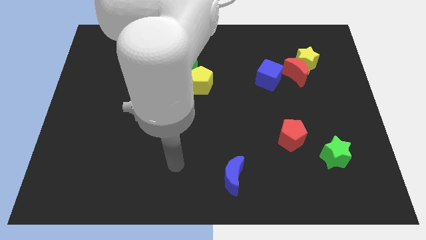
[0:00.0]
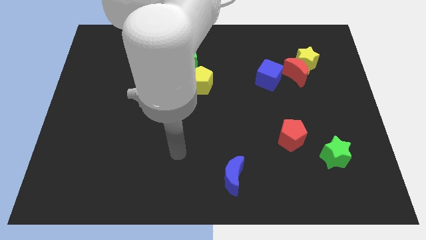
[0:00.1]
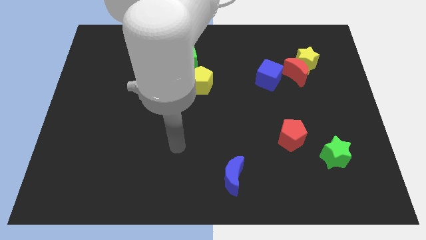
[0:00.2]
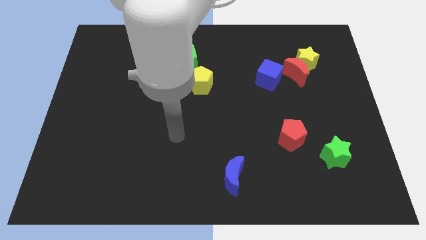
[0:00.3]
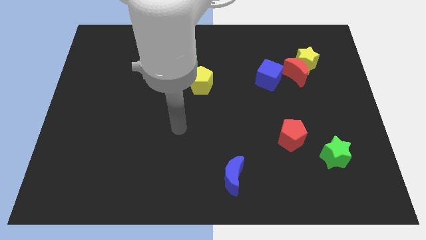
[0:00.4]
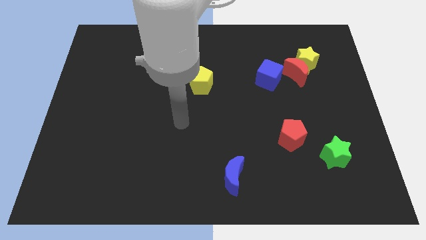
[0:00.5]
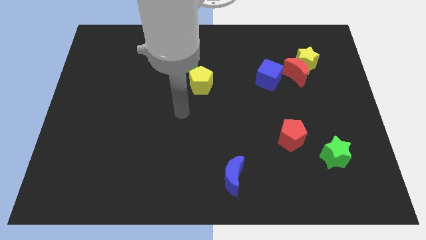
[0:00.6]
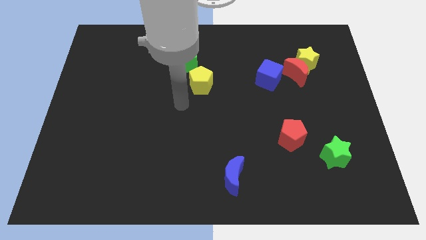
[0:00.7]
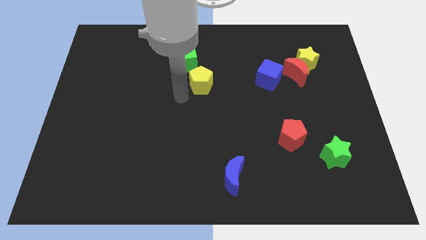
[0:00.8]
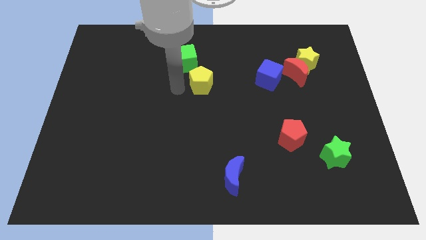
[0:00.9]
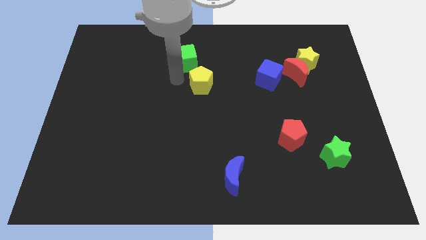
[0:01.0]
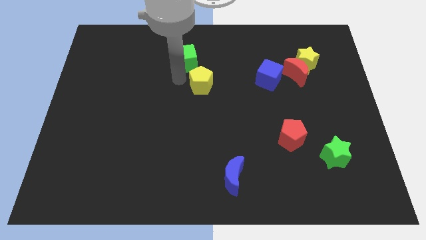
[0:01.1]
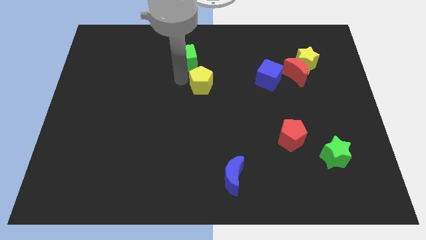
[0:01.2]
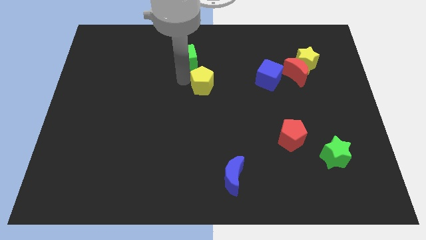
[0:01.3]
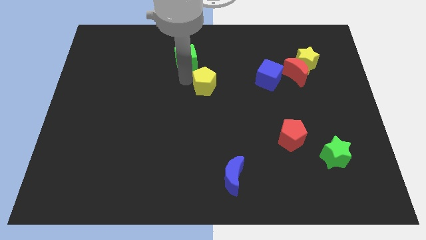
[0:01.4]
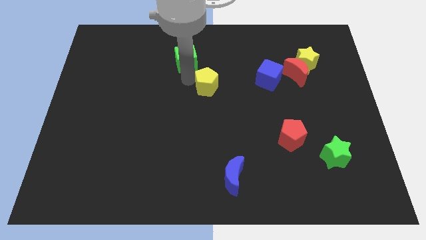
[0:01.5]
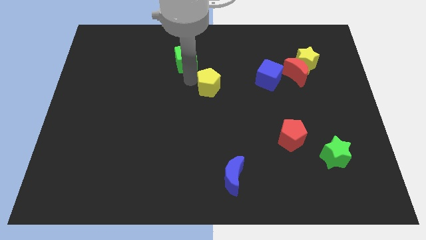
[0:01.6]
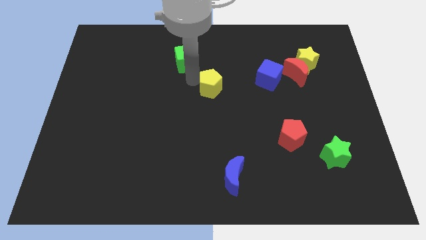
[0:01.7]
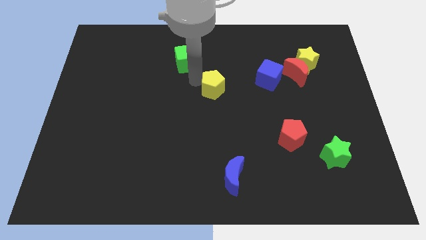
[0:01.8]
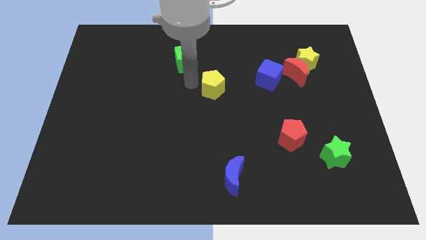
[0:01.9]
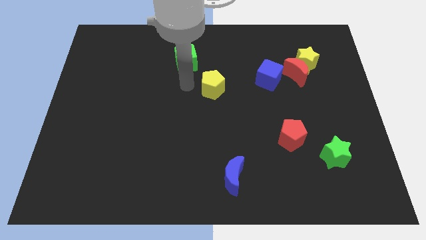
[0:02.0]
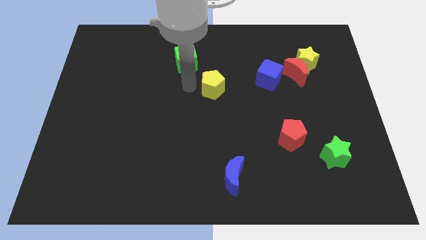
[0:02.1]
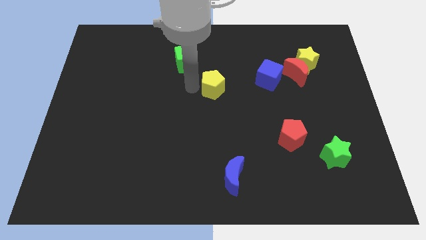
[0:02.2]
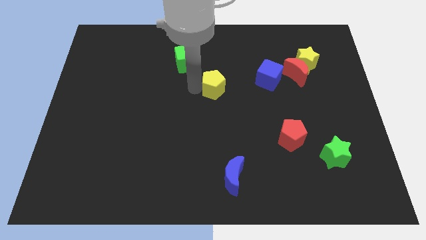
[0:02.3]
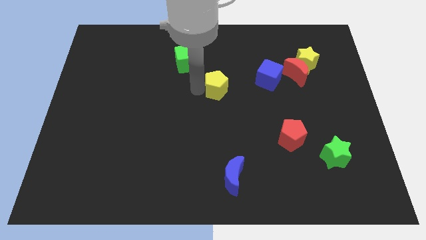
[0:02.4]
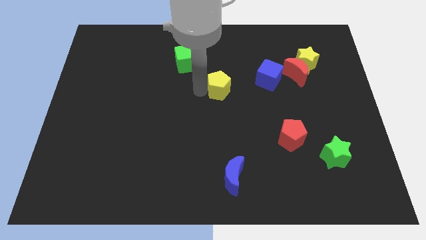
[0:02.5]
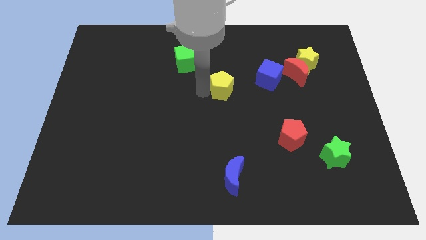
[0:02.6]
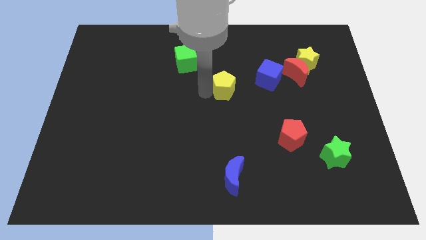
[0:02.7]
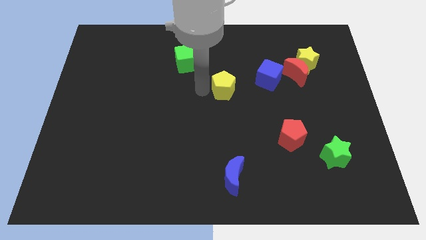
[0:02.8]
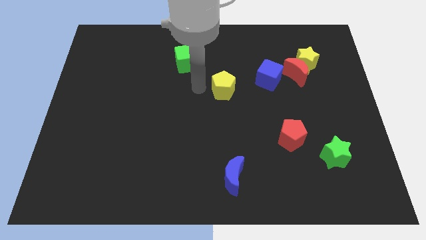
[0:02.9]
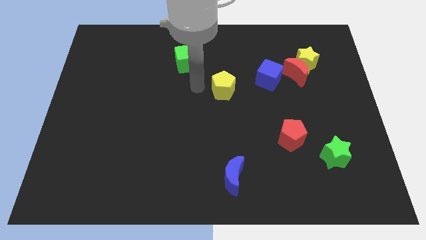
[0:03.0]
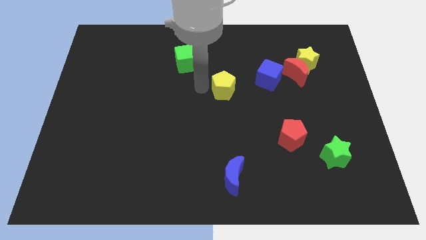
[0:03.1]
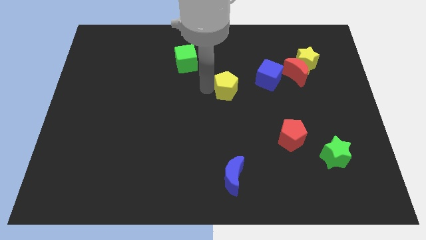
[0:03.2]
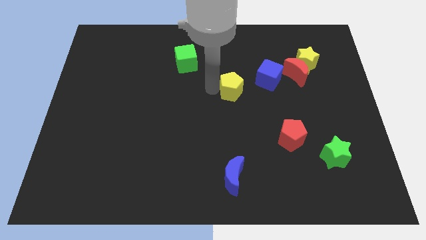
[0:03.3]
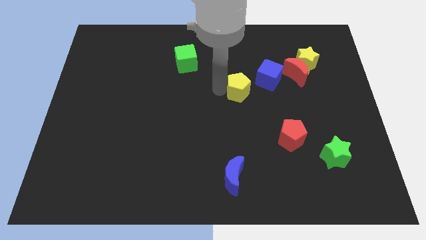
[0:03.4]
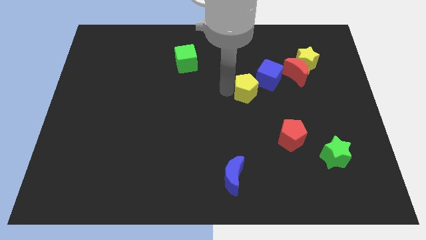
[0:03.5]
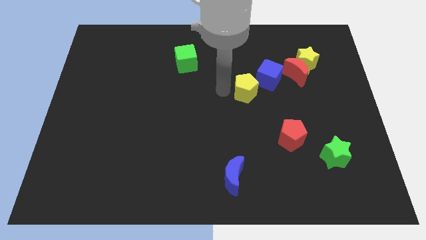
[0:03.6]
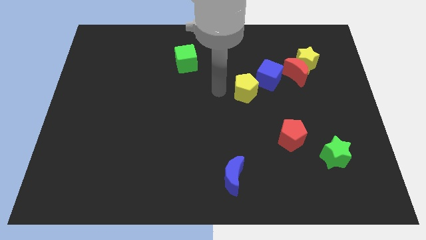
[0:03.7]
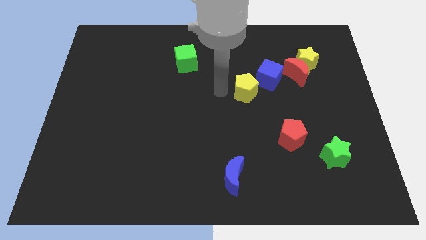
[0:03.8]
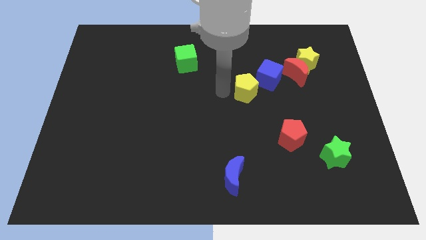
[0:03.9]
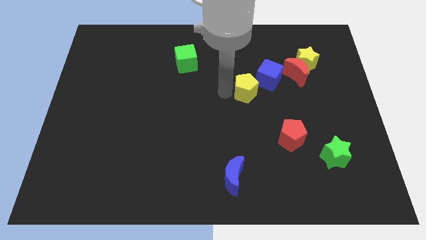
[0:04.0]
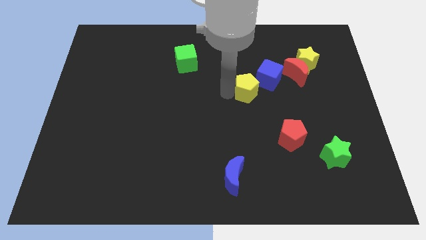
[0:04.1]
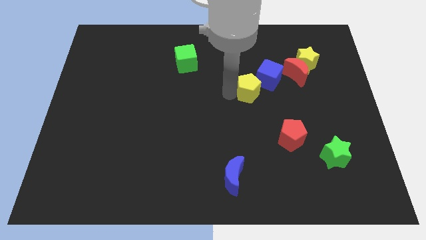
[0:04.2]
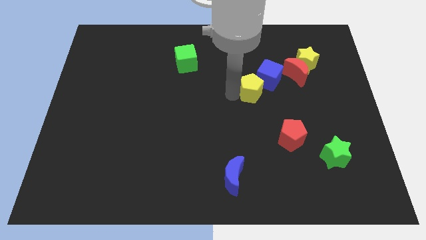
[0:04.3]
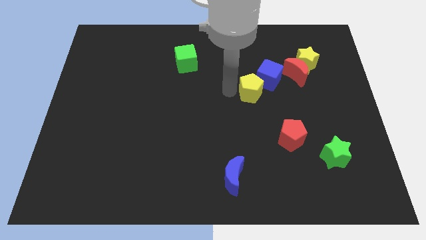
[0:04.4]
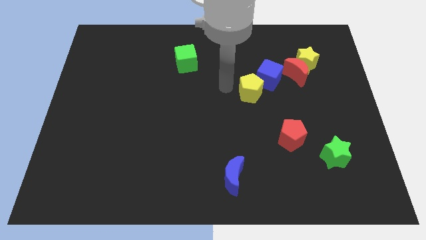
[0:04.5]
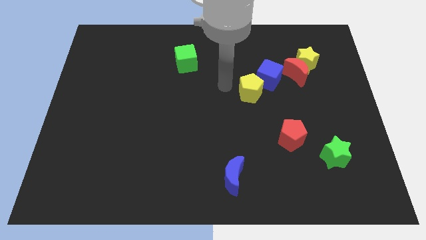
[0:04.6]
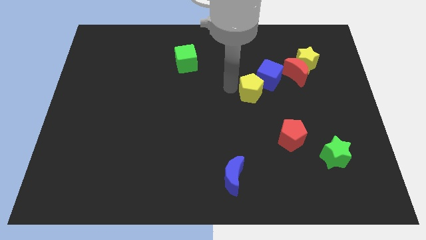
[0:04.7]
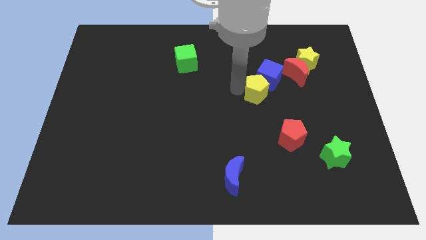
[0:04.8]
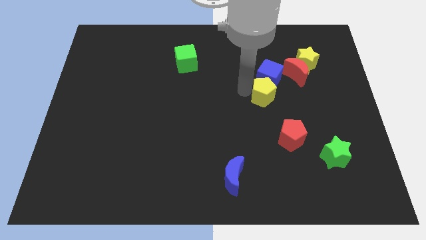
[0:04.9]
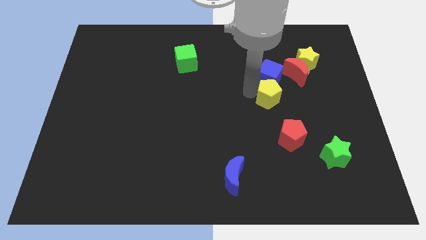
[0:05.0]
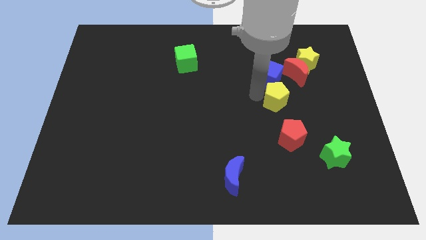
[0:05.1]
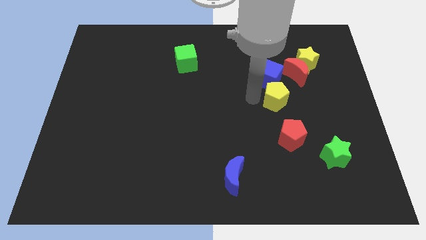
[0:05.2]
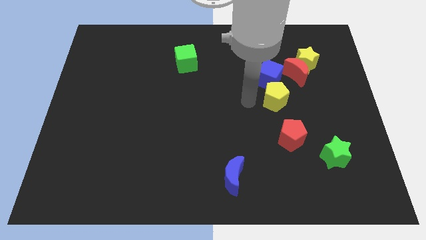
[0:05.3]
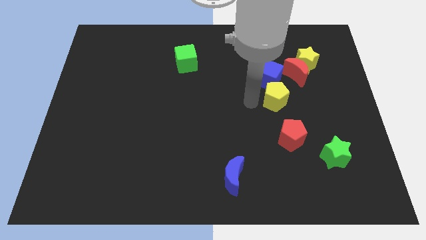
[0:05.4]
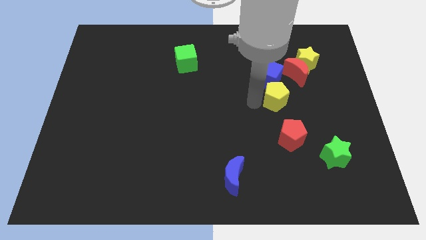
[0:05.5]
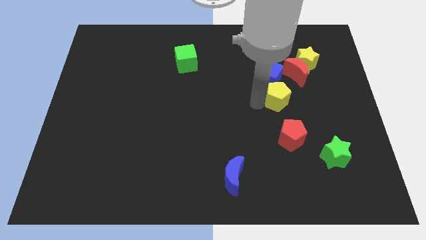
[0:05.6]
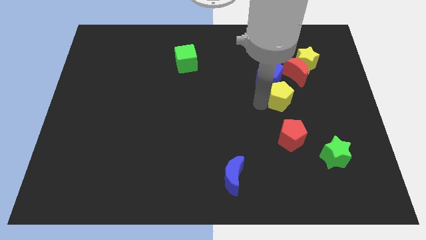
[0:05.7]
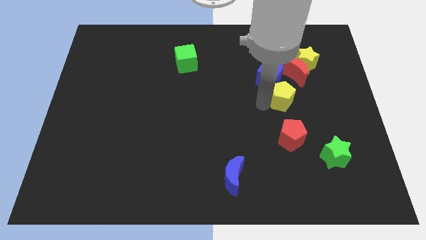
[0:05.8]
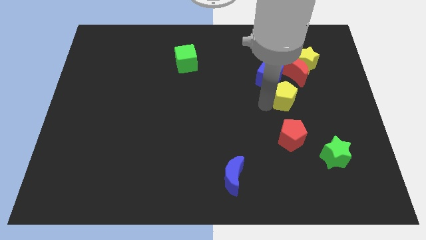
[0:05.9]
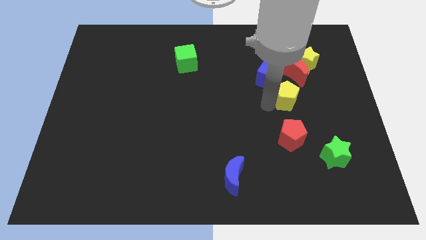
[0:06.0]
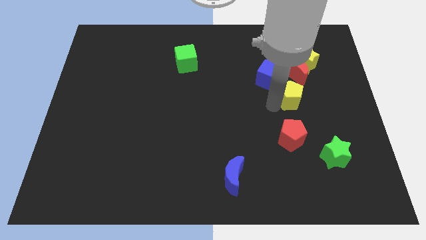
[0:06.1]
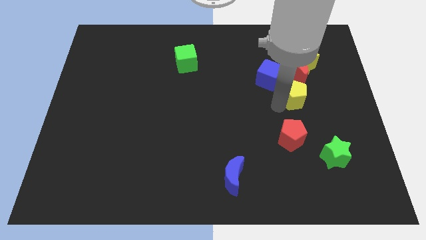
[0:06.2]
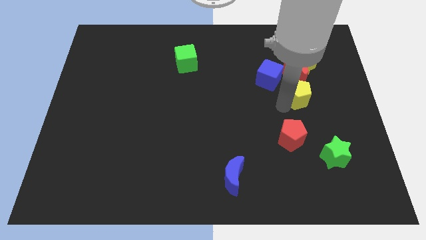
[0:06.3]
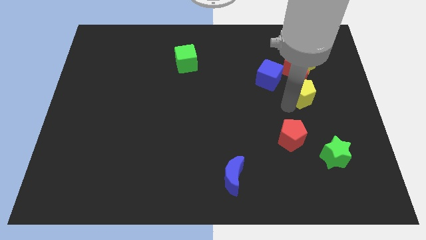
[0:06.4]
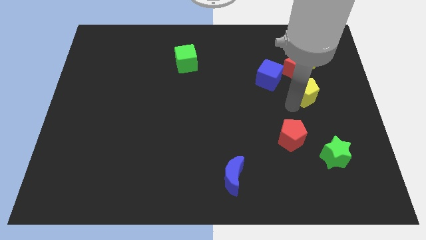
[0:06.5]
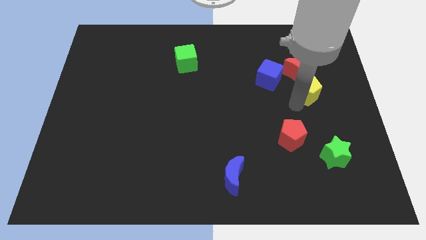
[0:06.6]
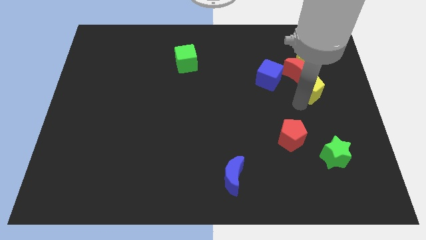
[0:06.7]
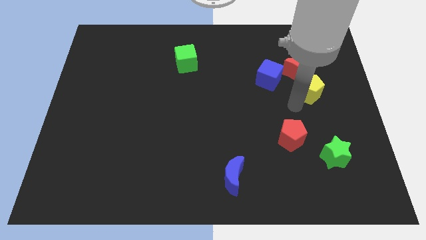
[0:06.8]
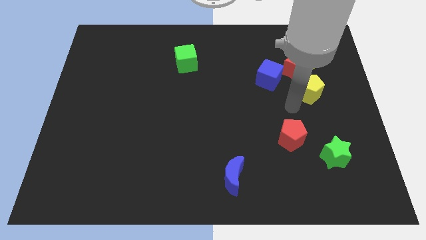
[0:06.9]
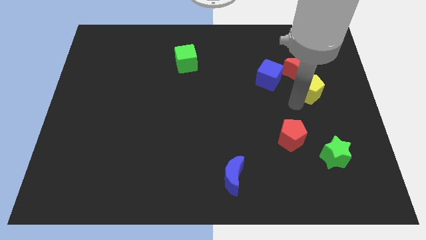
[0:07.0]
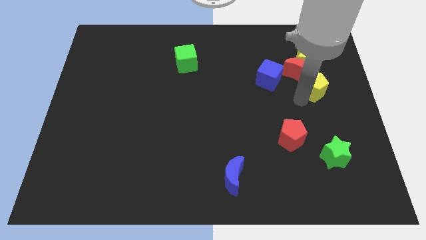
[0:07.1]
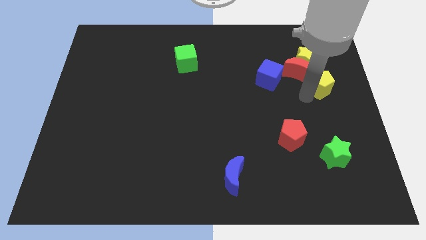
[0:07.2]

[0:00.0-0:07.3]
put the yellow pentagon to the bottom right side of the yellow star

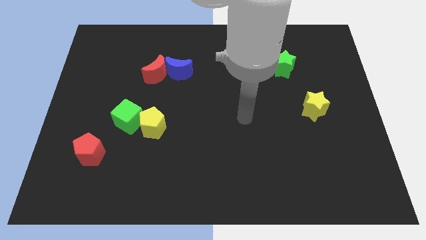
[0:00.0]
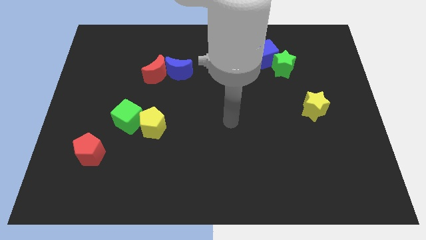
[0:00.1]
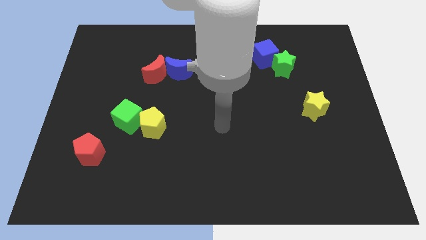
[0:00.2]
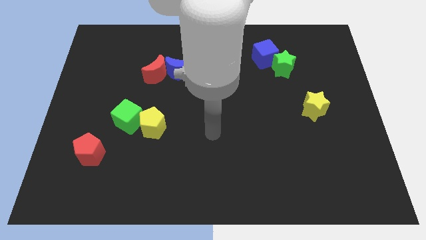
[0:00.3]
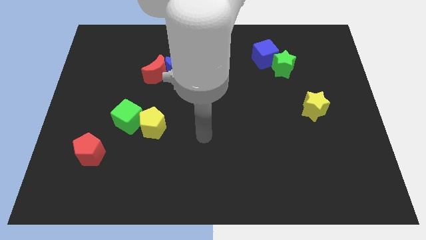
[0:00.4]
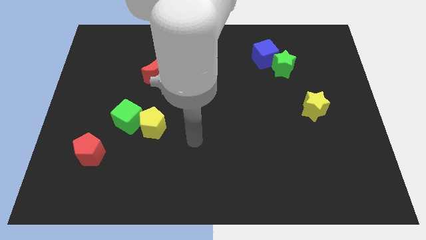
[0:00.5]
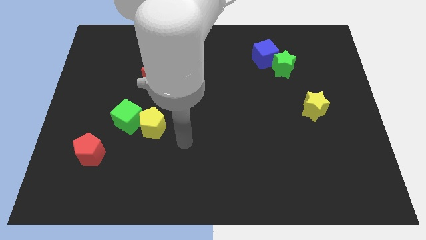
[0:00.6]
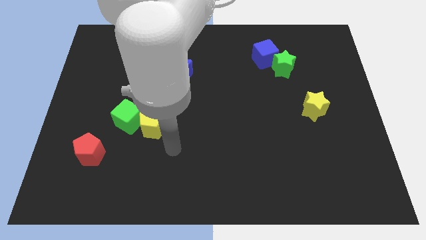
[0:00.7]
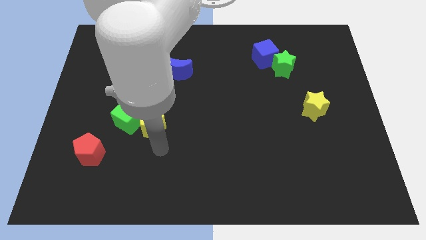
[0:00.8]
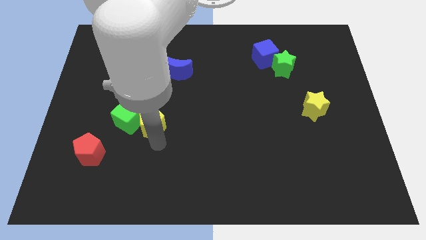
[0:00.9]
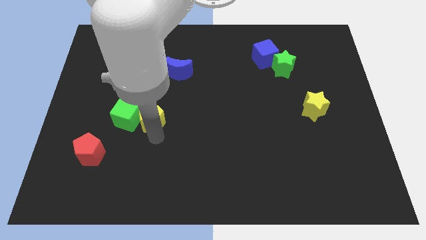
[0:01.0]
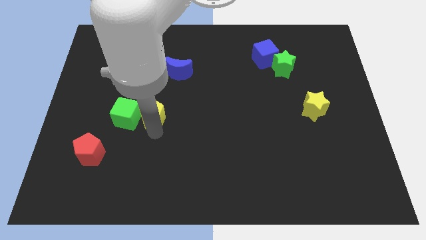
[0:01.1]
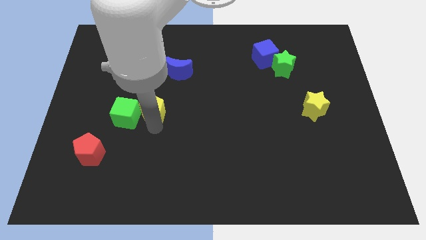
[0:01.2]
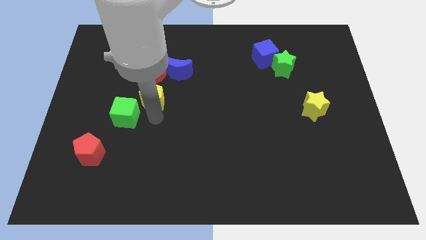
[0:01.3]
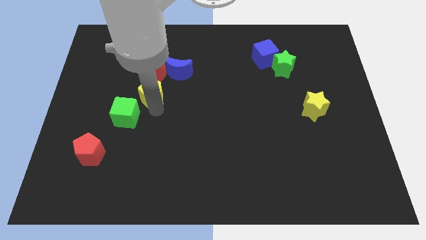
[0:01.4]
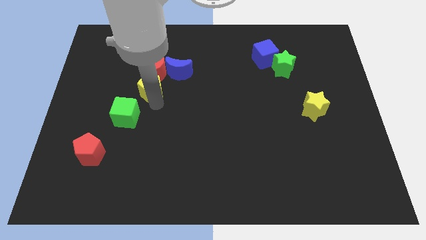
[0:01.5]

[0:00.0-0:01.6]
move the yellow pentagon above the green cube
